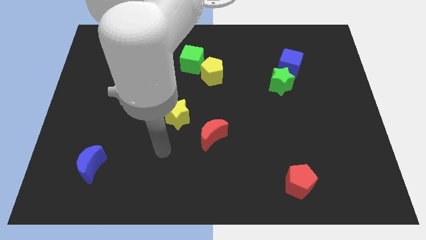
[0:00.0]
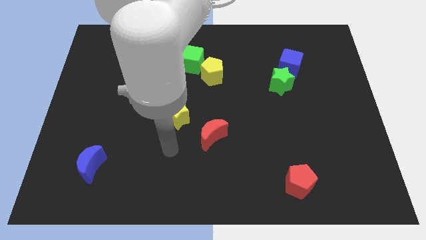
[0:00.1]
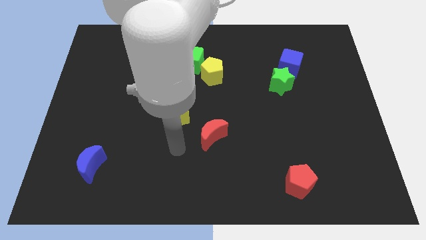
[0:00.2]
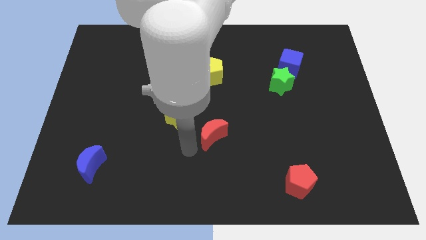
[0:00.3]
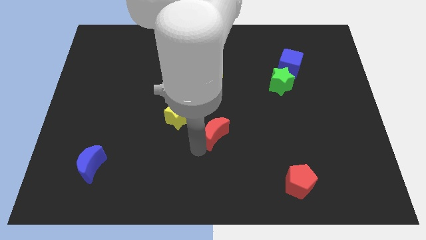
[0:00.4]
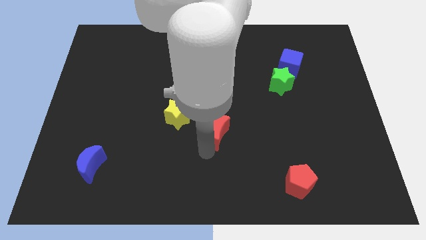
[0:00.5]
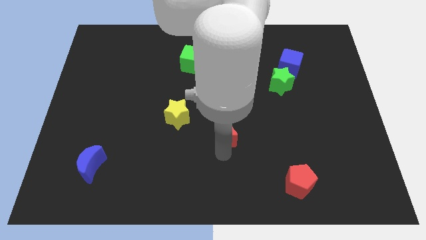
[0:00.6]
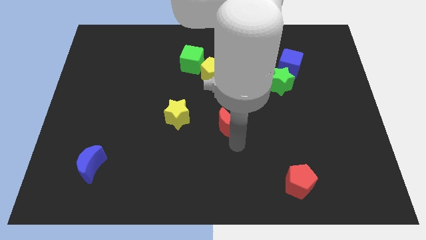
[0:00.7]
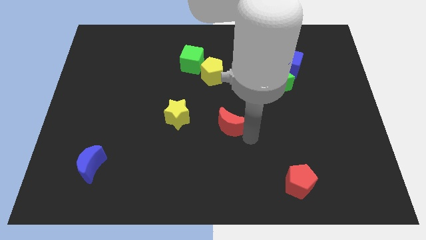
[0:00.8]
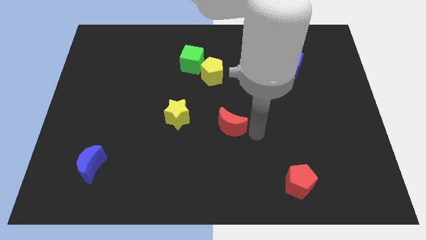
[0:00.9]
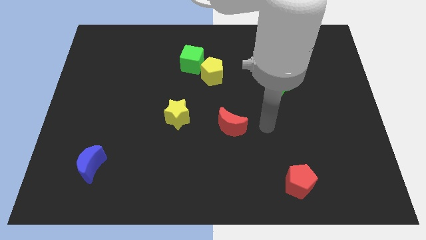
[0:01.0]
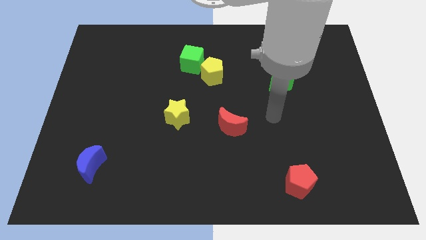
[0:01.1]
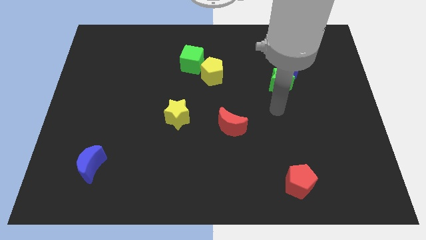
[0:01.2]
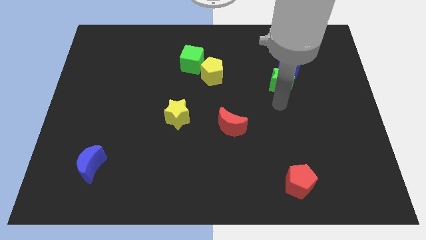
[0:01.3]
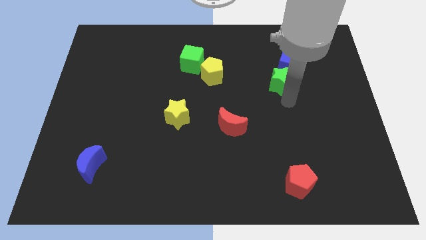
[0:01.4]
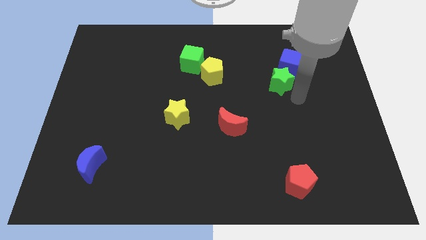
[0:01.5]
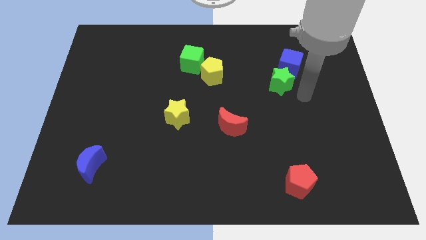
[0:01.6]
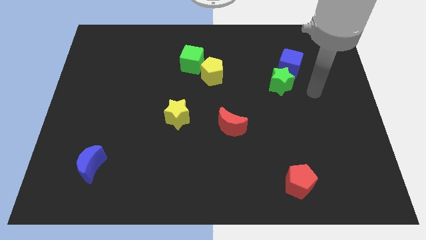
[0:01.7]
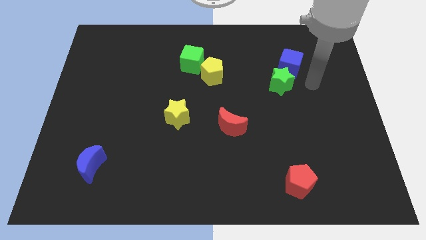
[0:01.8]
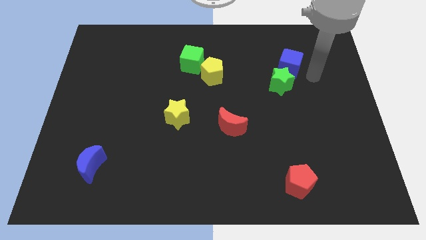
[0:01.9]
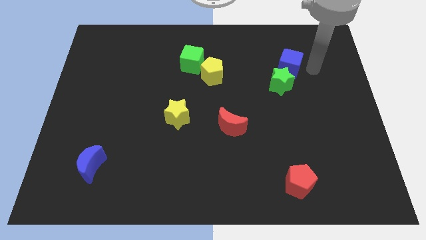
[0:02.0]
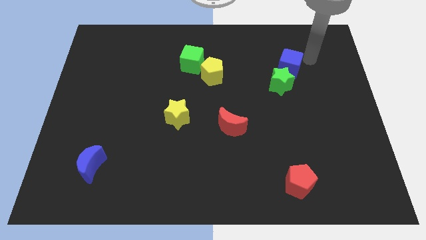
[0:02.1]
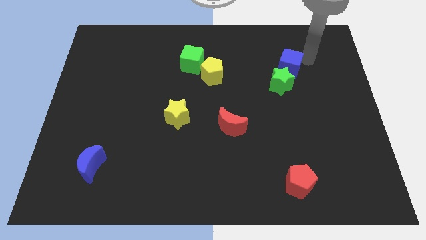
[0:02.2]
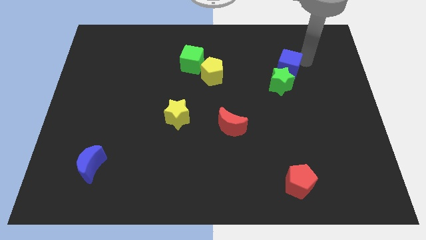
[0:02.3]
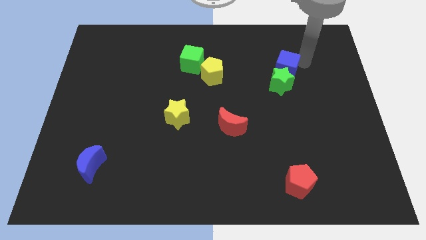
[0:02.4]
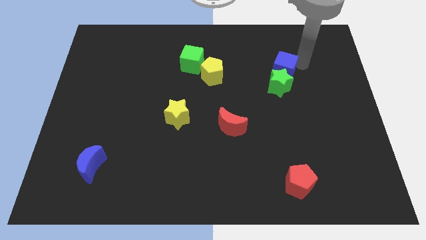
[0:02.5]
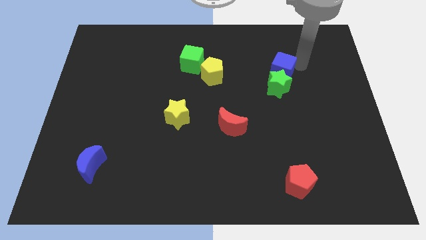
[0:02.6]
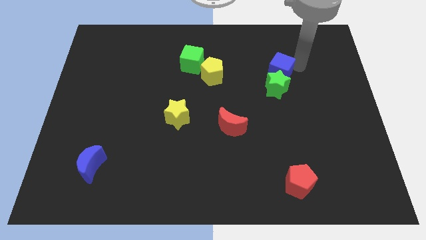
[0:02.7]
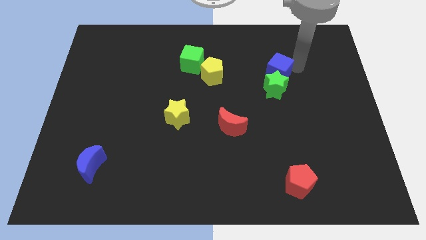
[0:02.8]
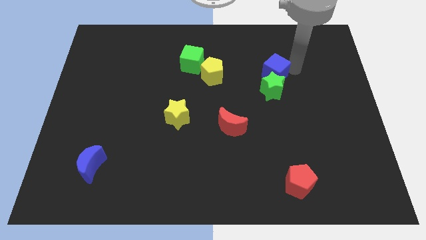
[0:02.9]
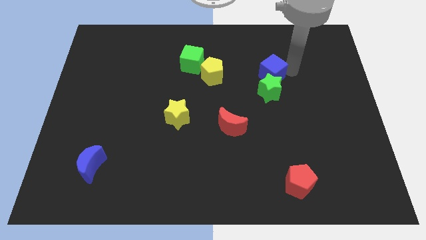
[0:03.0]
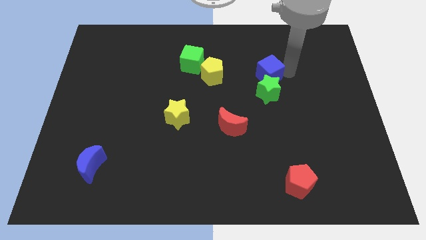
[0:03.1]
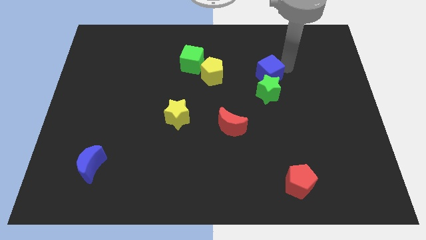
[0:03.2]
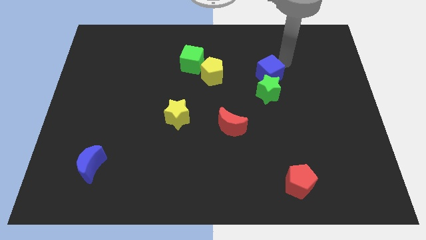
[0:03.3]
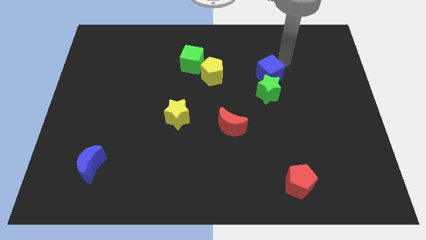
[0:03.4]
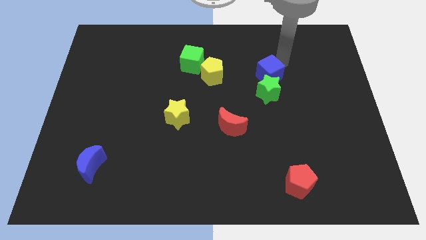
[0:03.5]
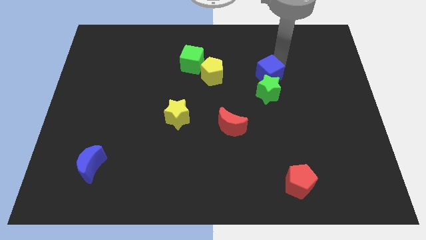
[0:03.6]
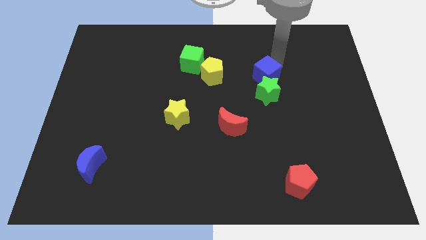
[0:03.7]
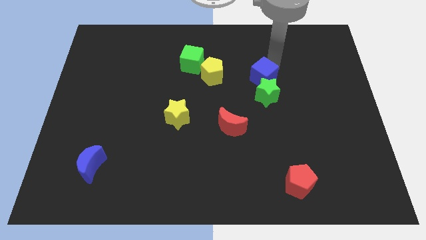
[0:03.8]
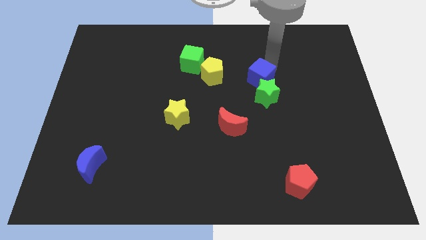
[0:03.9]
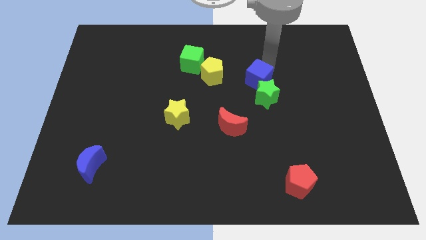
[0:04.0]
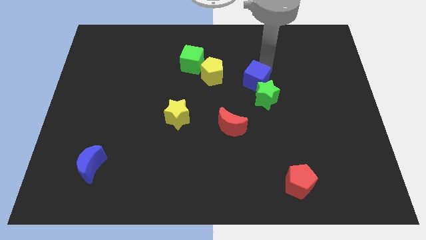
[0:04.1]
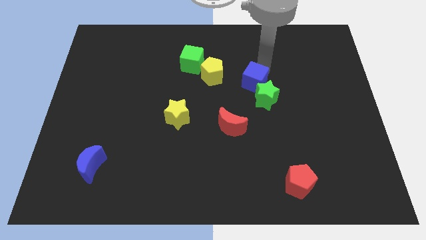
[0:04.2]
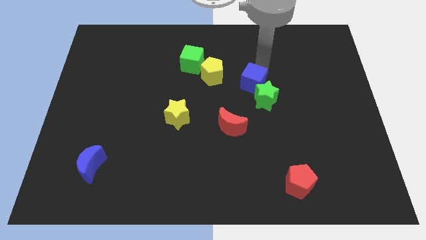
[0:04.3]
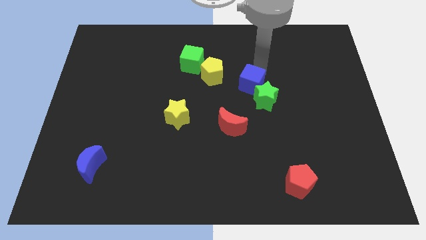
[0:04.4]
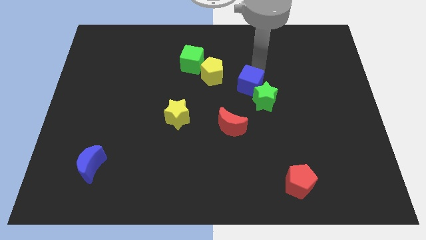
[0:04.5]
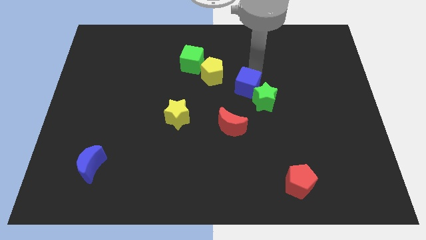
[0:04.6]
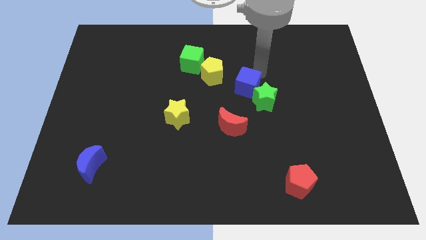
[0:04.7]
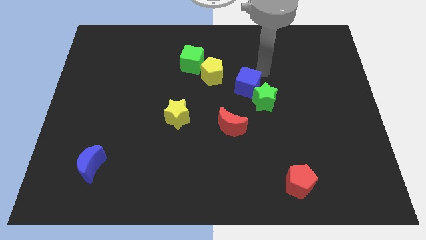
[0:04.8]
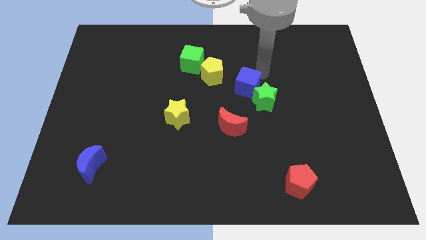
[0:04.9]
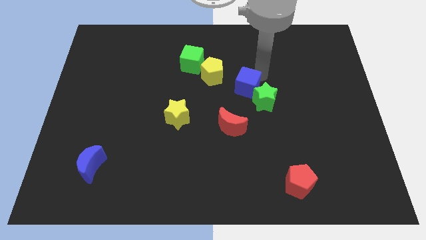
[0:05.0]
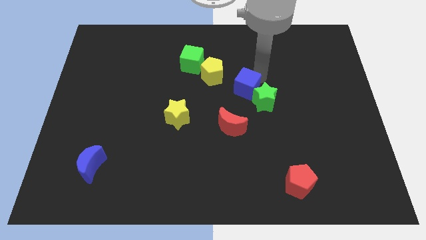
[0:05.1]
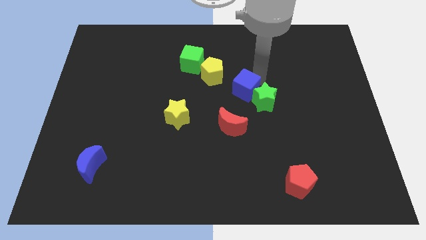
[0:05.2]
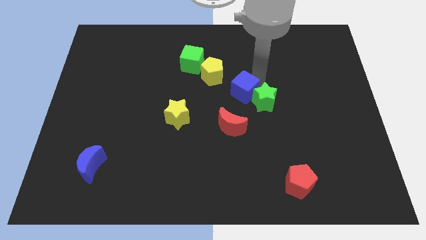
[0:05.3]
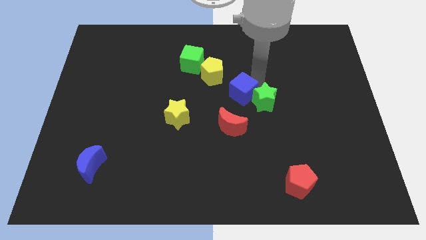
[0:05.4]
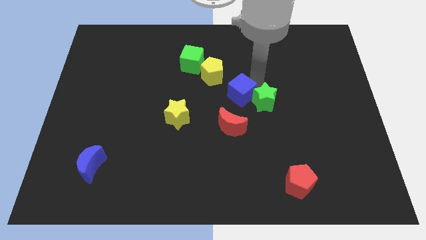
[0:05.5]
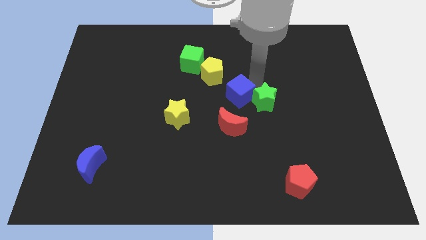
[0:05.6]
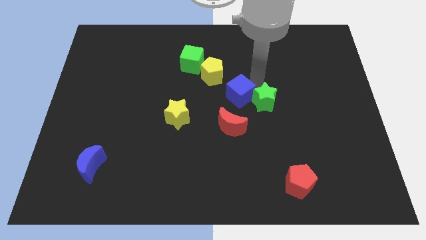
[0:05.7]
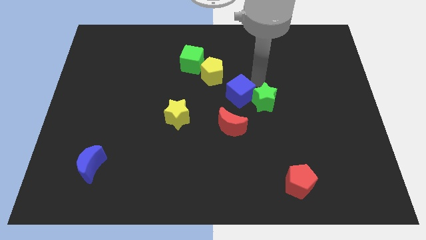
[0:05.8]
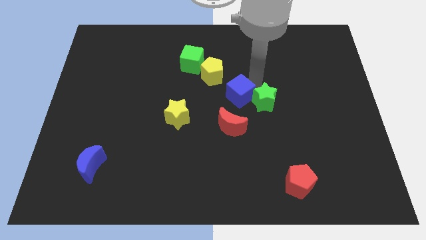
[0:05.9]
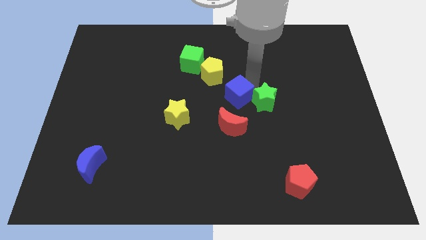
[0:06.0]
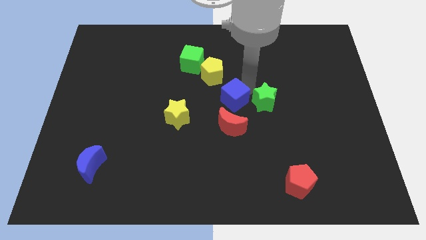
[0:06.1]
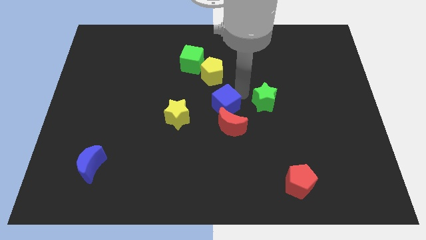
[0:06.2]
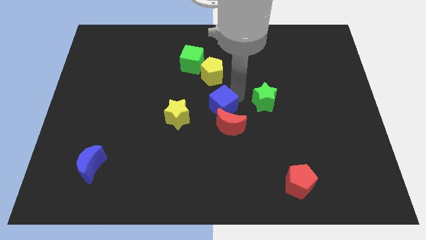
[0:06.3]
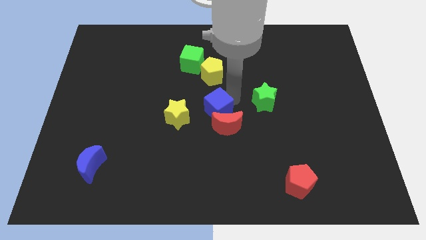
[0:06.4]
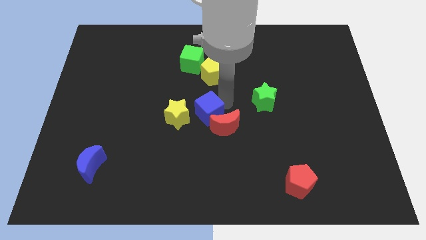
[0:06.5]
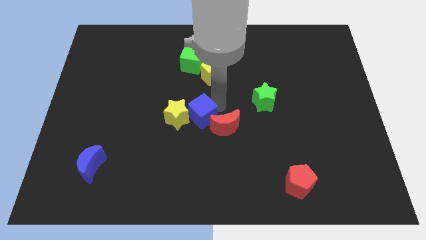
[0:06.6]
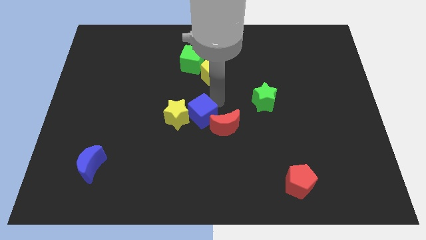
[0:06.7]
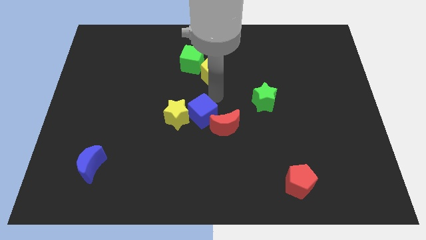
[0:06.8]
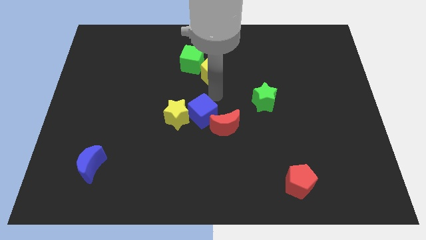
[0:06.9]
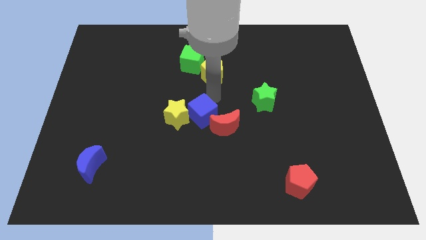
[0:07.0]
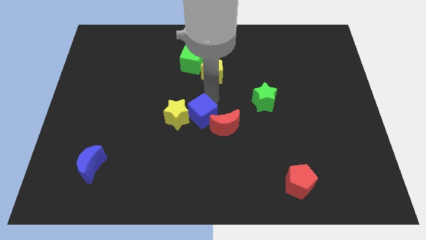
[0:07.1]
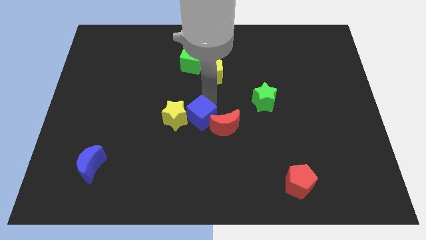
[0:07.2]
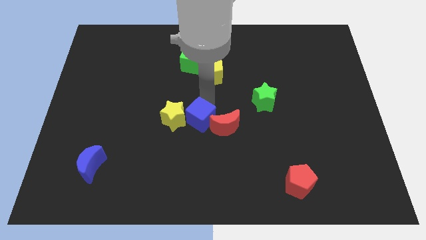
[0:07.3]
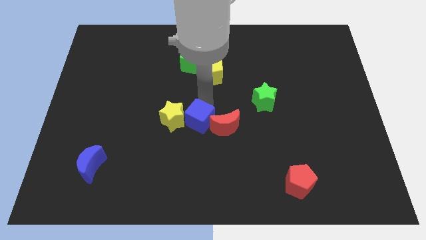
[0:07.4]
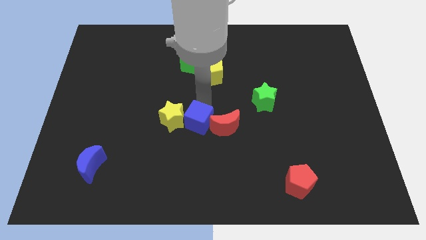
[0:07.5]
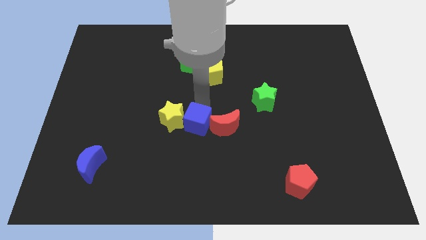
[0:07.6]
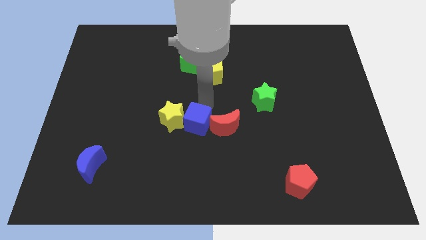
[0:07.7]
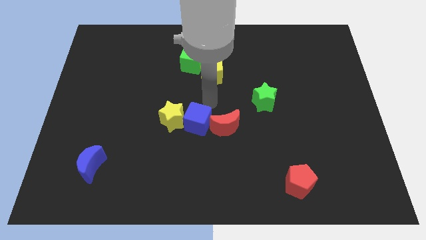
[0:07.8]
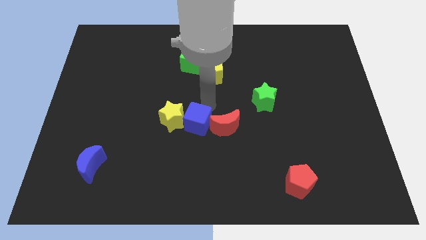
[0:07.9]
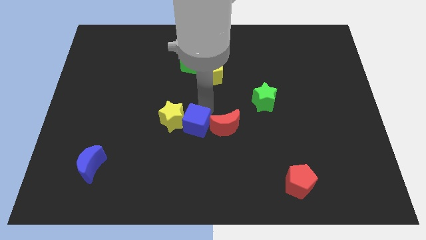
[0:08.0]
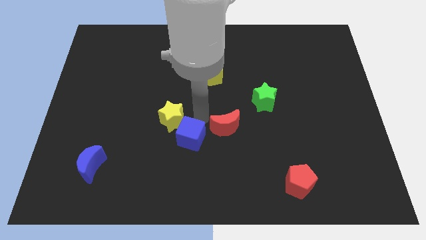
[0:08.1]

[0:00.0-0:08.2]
slide the blue cube below the yellow star
